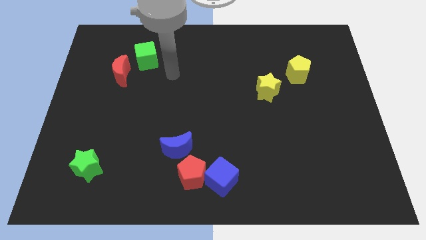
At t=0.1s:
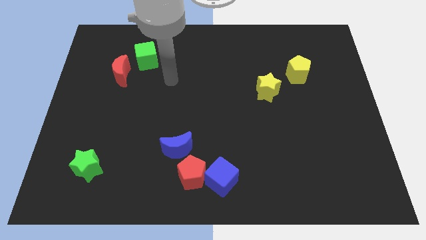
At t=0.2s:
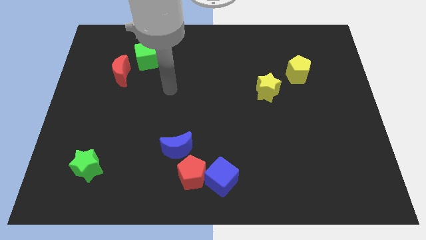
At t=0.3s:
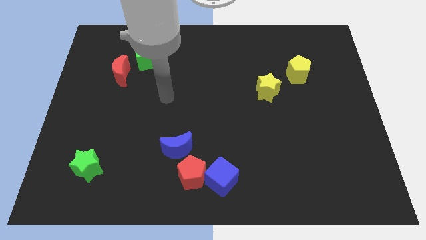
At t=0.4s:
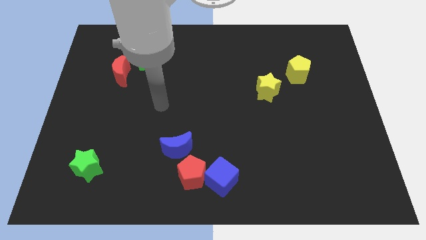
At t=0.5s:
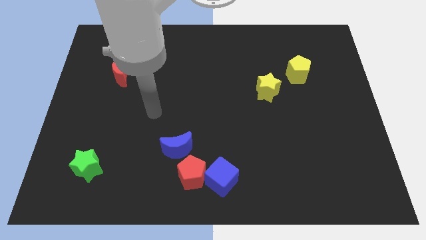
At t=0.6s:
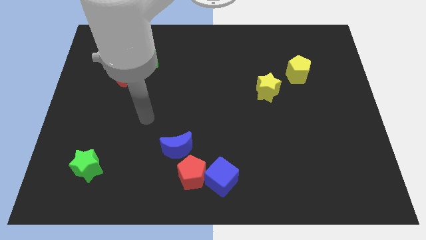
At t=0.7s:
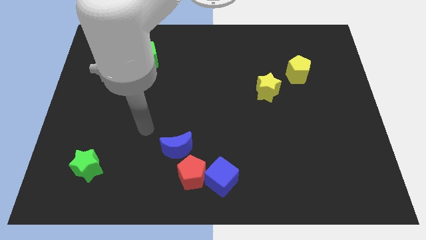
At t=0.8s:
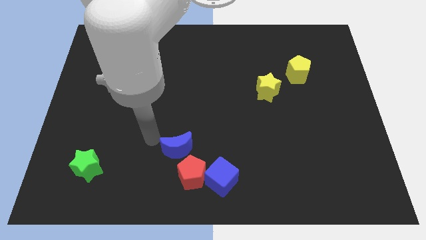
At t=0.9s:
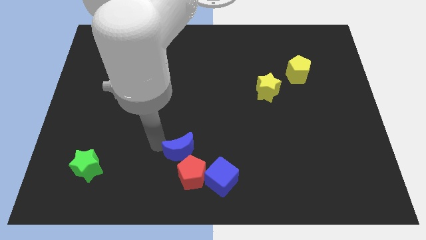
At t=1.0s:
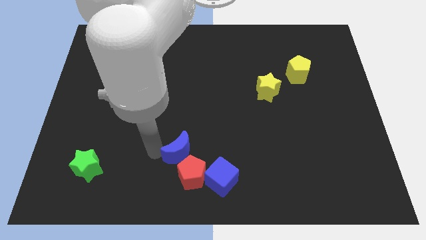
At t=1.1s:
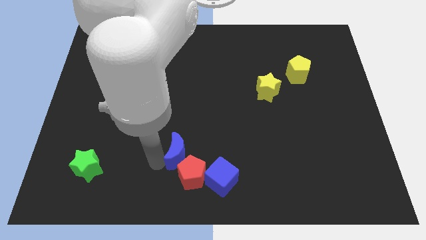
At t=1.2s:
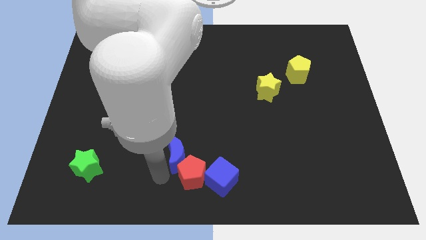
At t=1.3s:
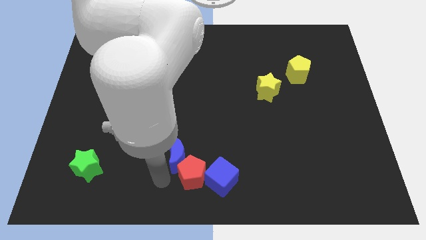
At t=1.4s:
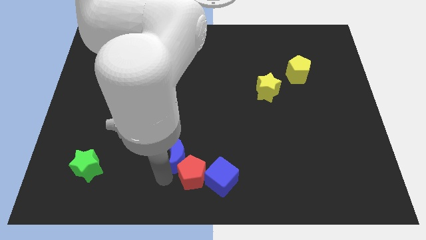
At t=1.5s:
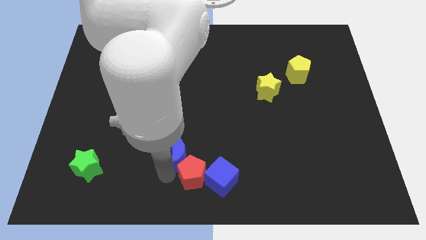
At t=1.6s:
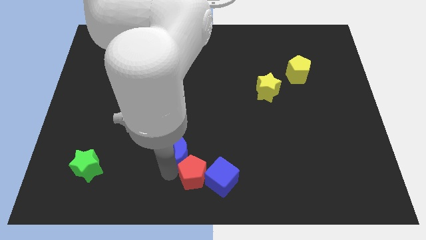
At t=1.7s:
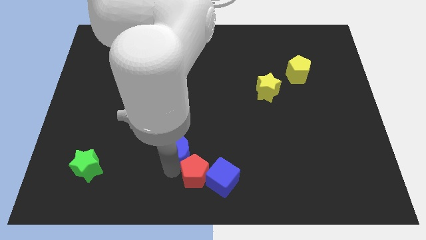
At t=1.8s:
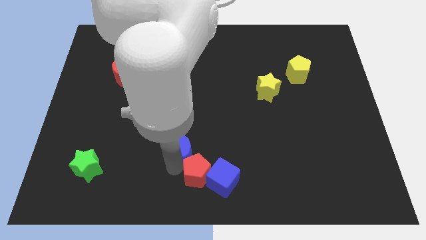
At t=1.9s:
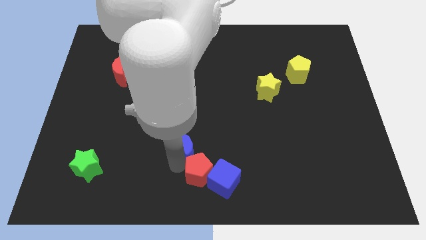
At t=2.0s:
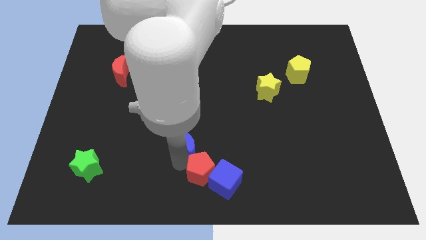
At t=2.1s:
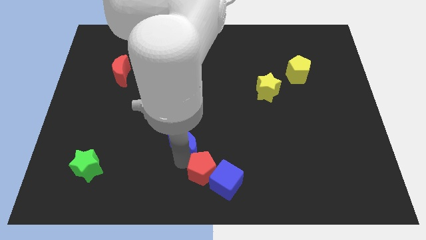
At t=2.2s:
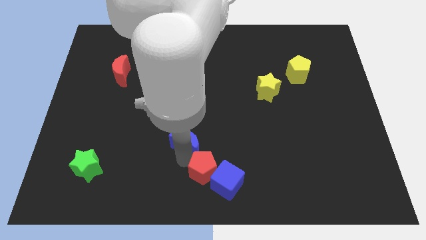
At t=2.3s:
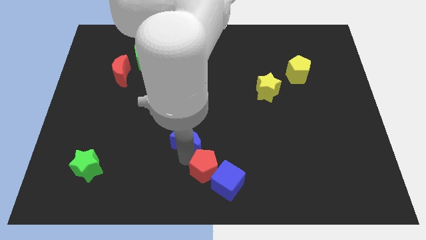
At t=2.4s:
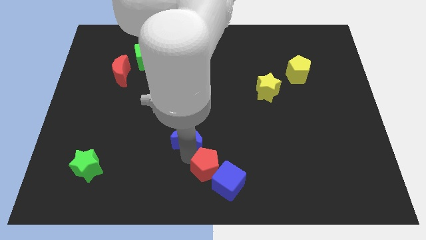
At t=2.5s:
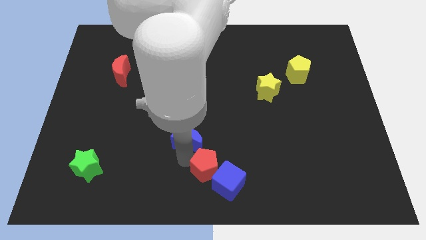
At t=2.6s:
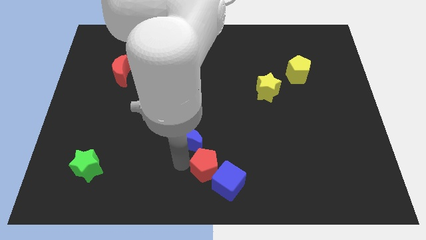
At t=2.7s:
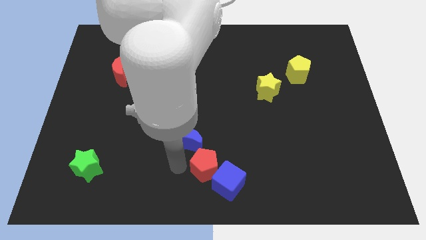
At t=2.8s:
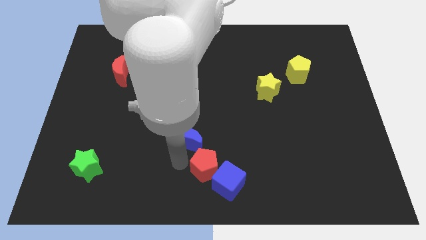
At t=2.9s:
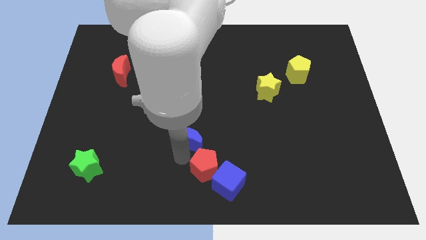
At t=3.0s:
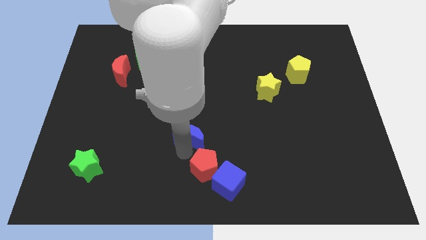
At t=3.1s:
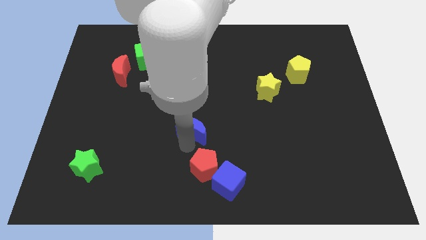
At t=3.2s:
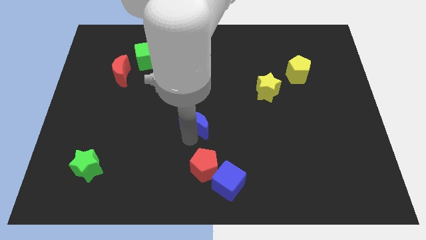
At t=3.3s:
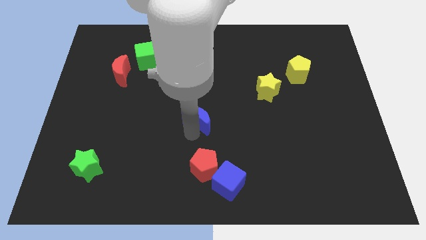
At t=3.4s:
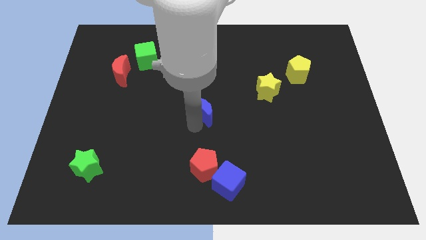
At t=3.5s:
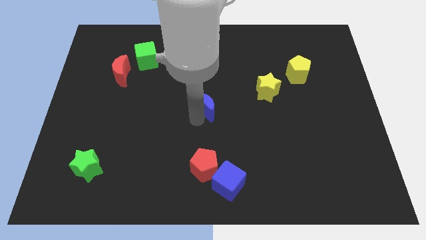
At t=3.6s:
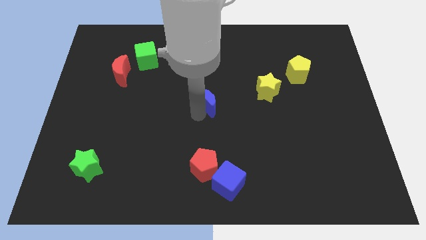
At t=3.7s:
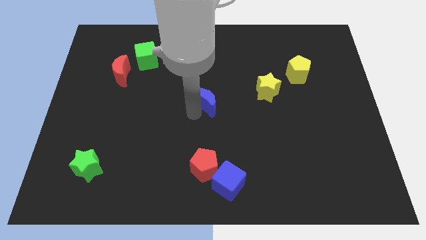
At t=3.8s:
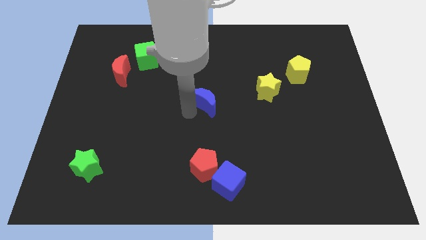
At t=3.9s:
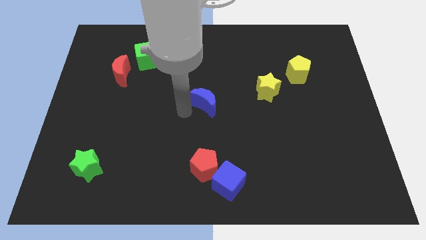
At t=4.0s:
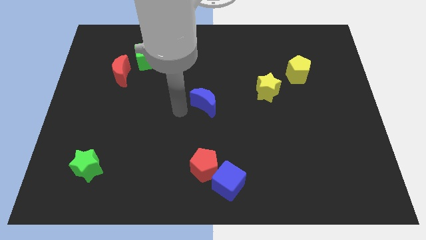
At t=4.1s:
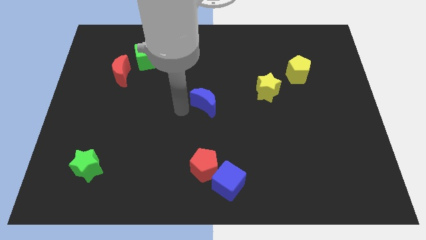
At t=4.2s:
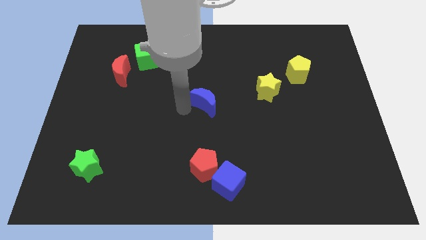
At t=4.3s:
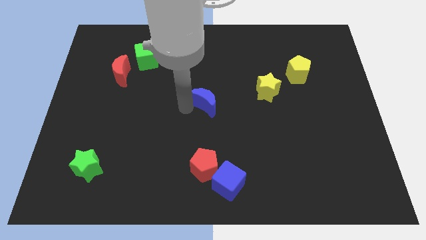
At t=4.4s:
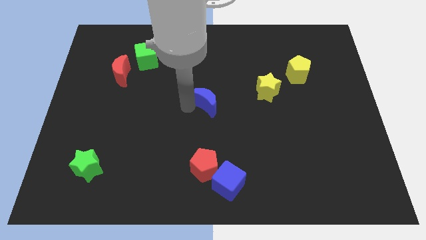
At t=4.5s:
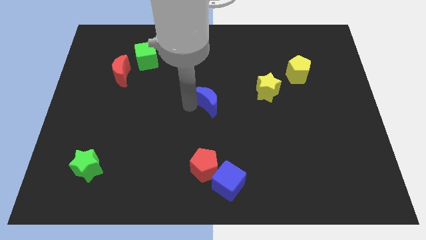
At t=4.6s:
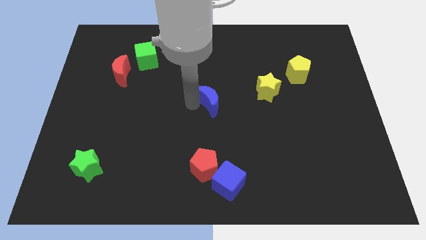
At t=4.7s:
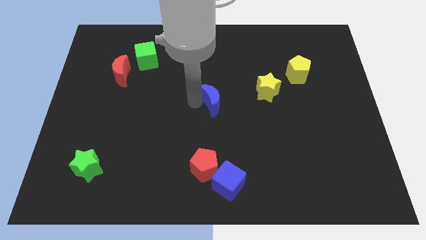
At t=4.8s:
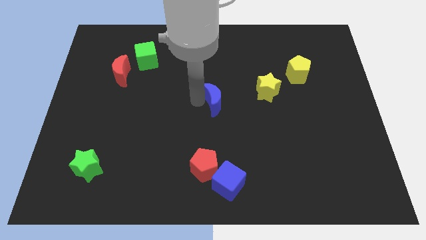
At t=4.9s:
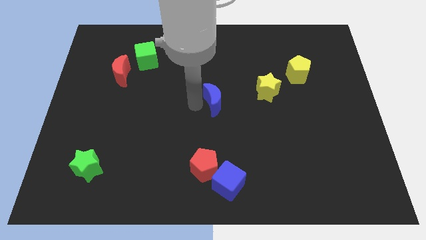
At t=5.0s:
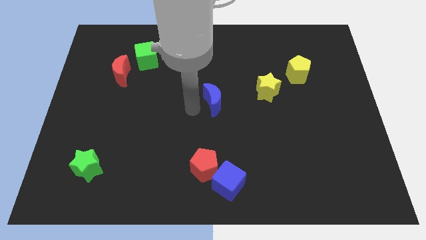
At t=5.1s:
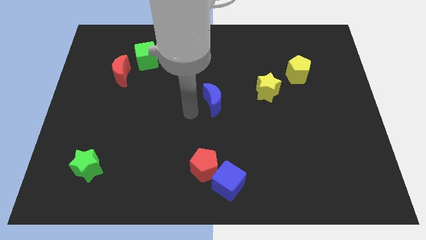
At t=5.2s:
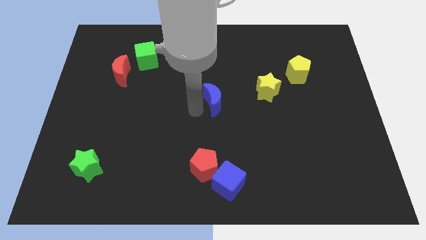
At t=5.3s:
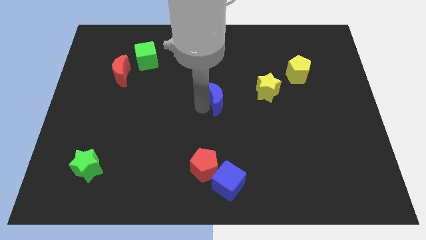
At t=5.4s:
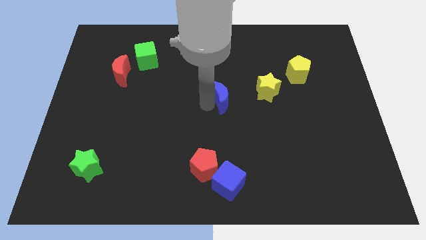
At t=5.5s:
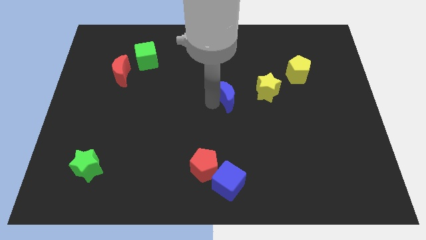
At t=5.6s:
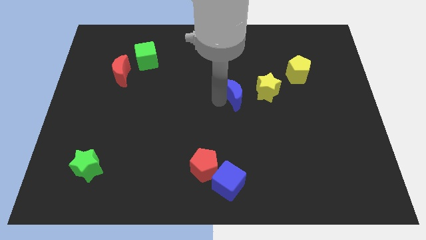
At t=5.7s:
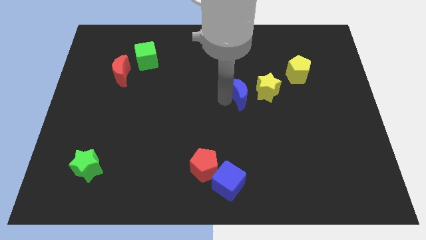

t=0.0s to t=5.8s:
move the blue moon diagonally up and to the right

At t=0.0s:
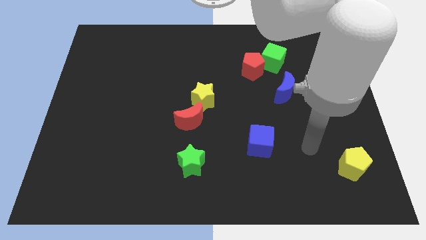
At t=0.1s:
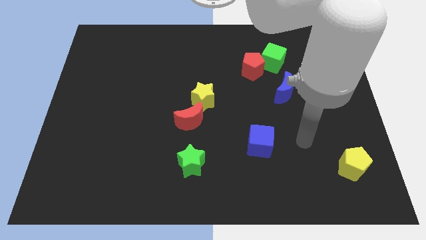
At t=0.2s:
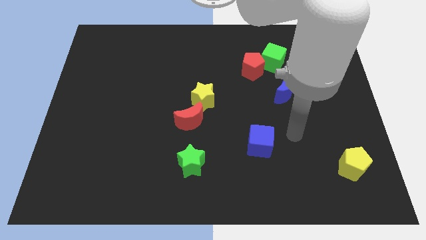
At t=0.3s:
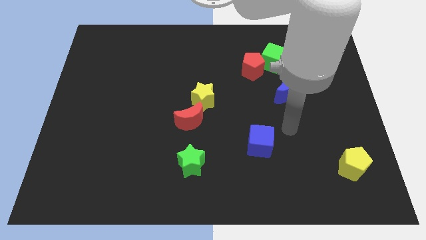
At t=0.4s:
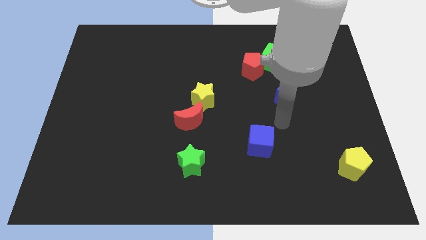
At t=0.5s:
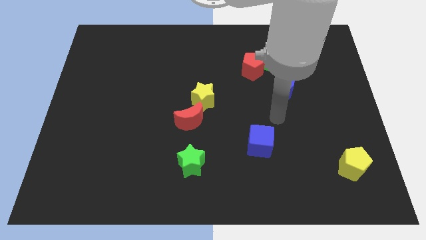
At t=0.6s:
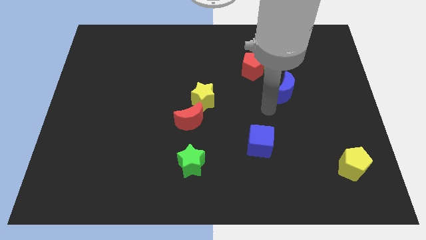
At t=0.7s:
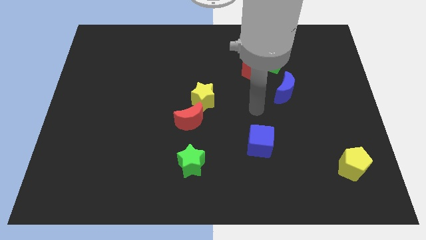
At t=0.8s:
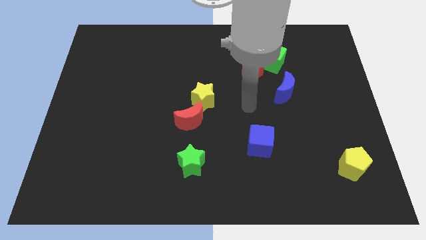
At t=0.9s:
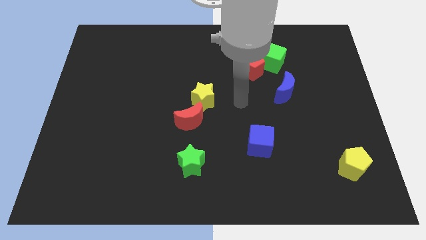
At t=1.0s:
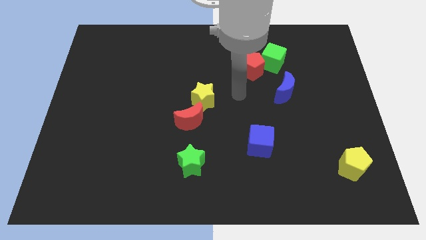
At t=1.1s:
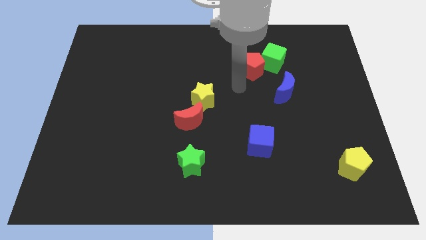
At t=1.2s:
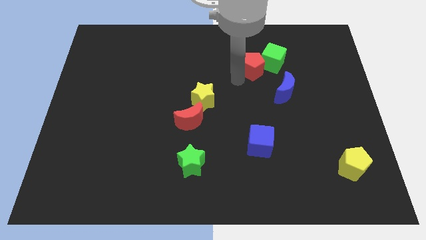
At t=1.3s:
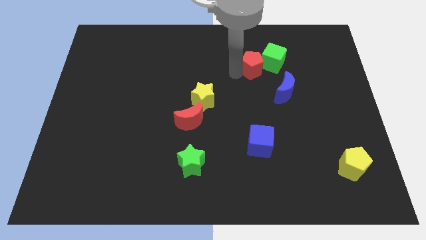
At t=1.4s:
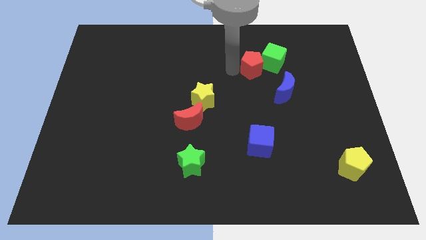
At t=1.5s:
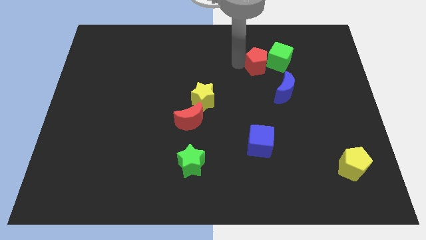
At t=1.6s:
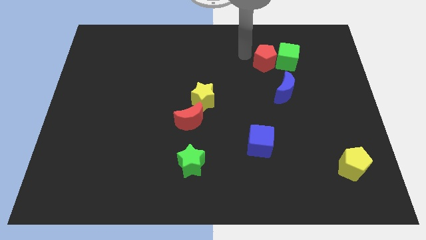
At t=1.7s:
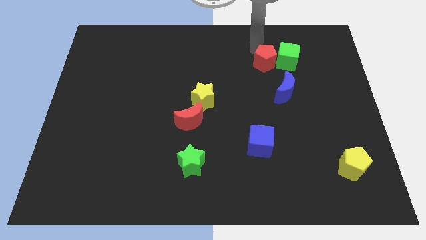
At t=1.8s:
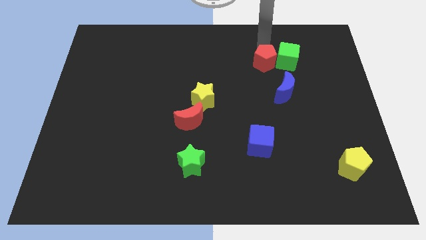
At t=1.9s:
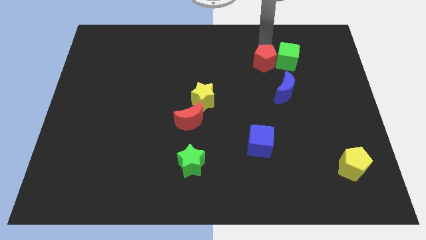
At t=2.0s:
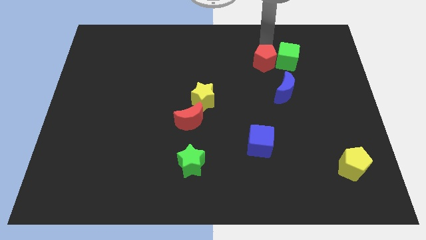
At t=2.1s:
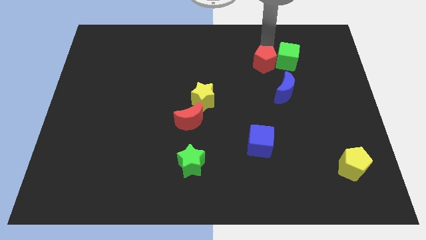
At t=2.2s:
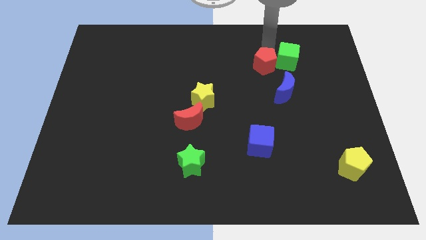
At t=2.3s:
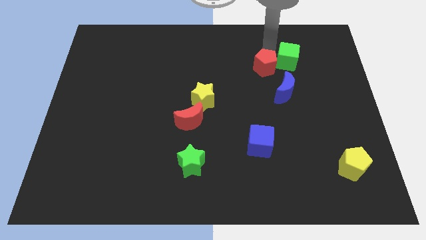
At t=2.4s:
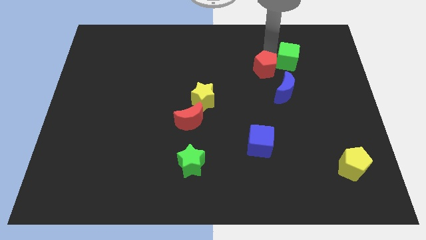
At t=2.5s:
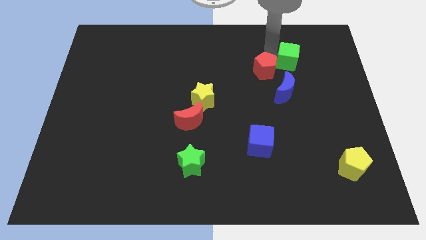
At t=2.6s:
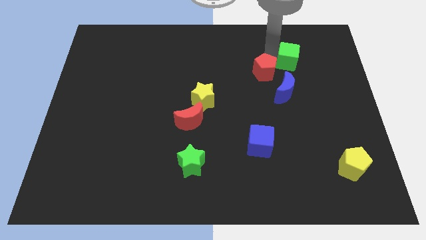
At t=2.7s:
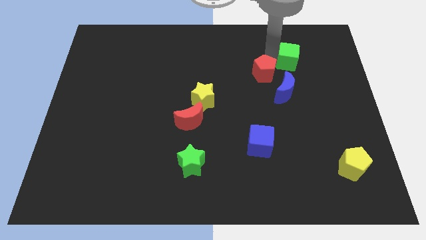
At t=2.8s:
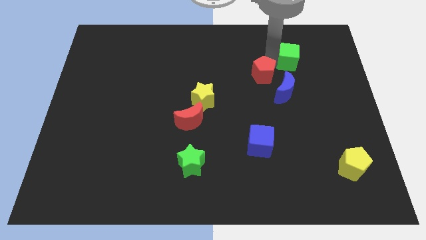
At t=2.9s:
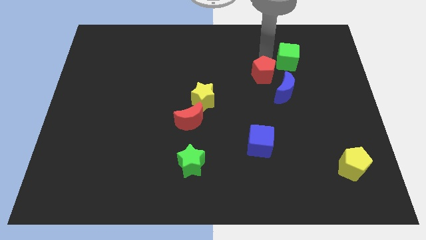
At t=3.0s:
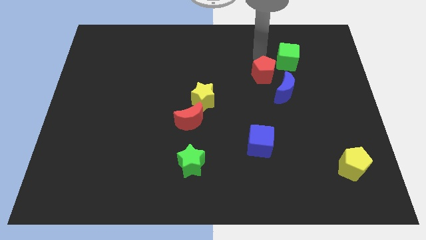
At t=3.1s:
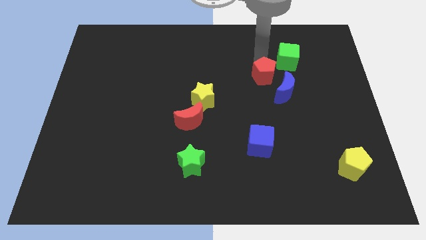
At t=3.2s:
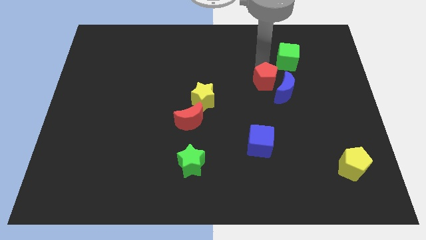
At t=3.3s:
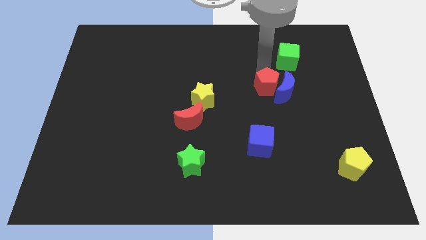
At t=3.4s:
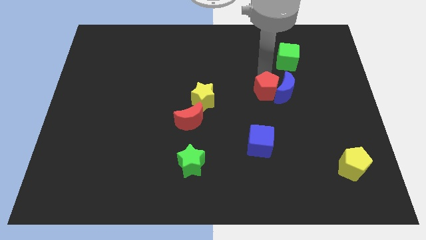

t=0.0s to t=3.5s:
slightly push the red pentagon downwards and then right
